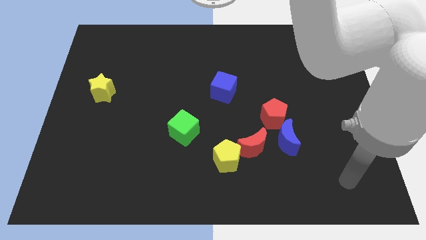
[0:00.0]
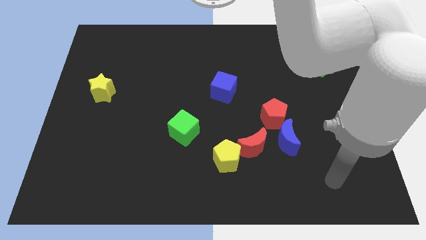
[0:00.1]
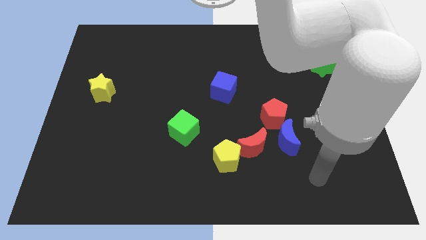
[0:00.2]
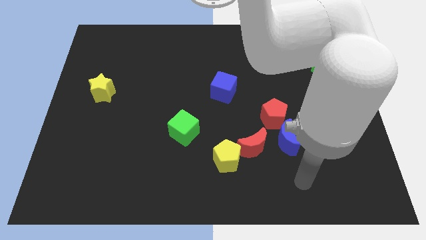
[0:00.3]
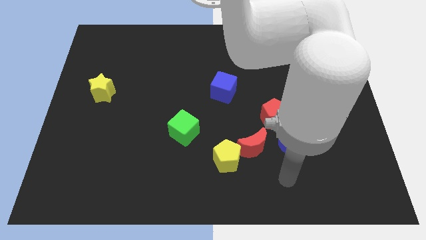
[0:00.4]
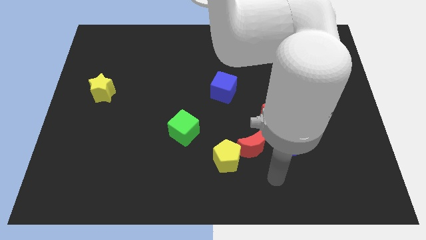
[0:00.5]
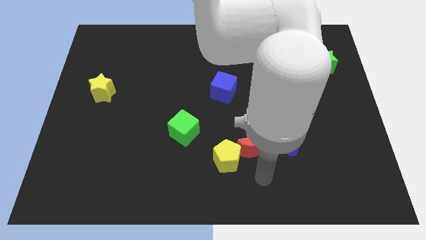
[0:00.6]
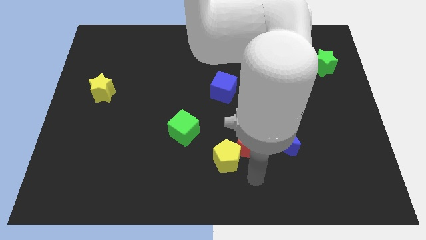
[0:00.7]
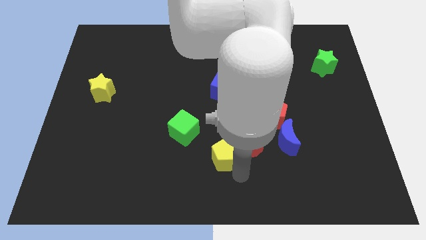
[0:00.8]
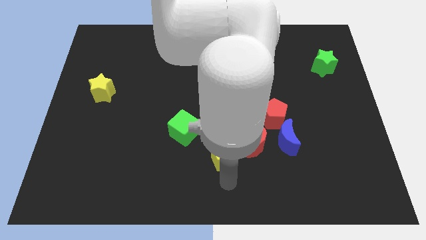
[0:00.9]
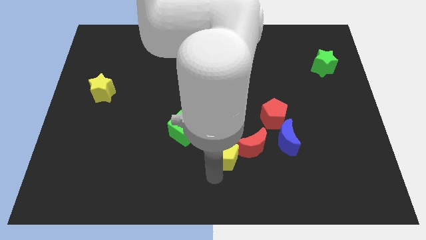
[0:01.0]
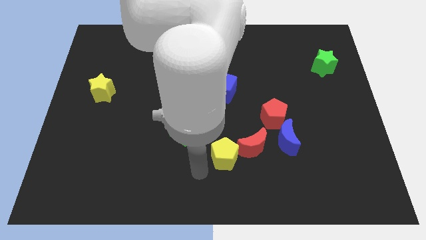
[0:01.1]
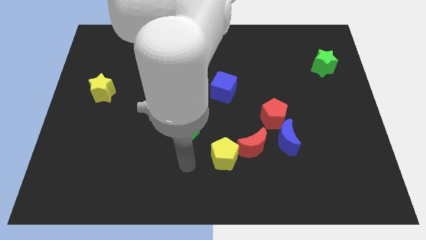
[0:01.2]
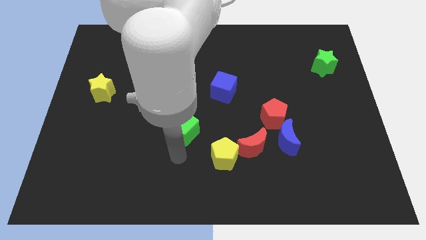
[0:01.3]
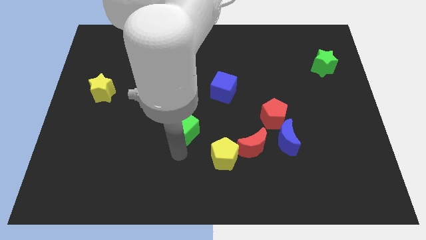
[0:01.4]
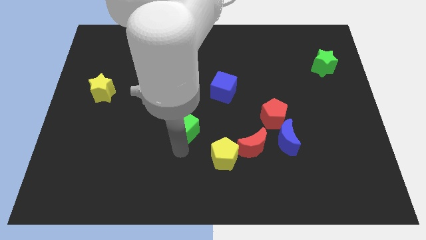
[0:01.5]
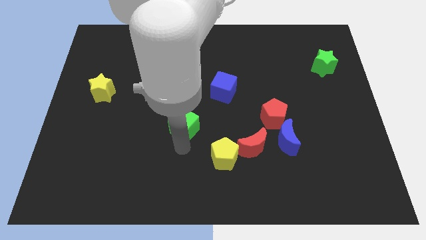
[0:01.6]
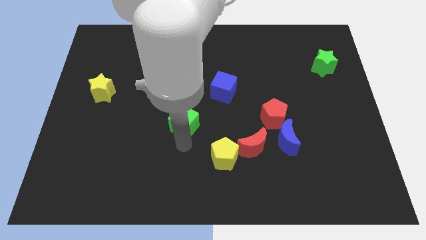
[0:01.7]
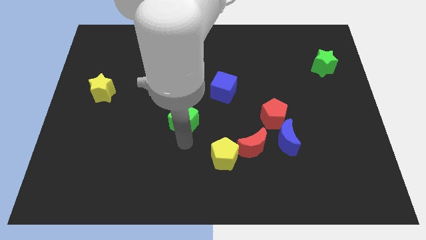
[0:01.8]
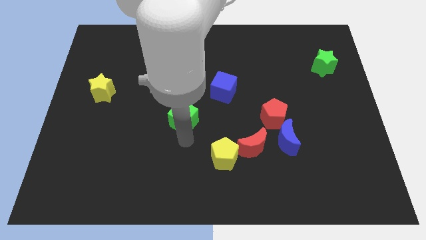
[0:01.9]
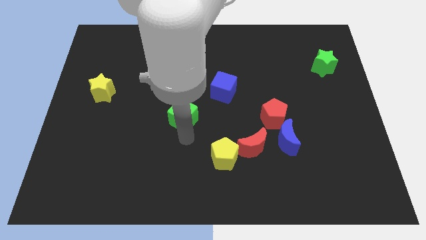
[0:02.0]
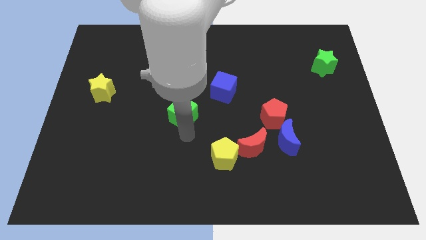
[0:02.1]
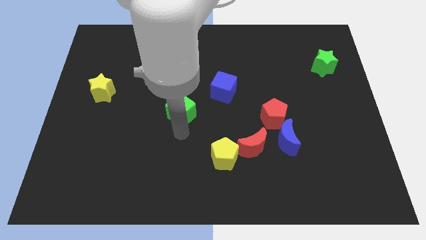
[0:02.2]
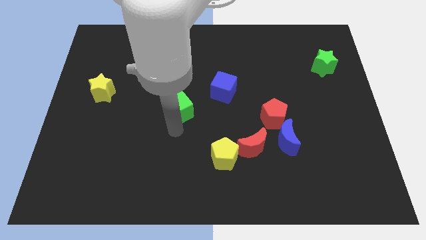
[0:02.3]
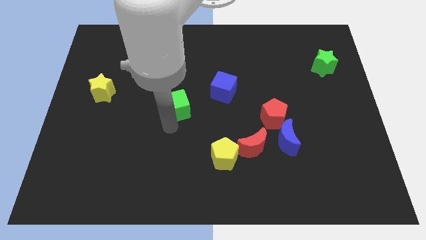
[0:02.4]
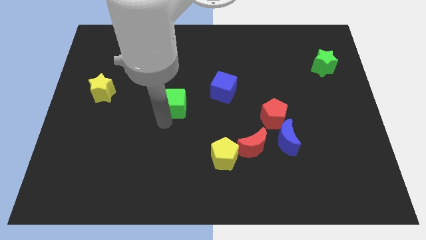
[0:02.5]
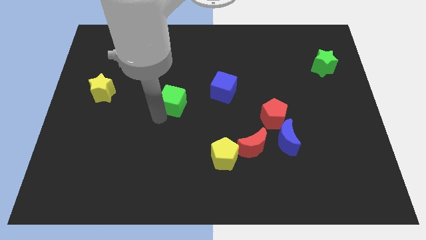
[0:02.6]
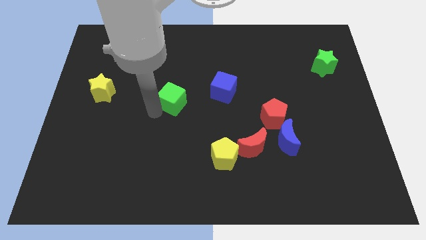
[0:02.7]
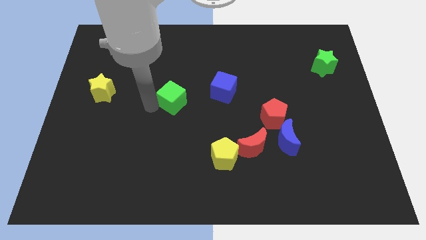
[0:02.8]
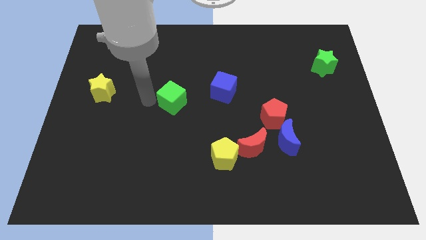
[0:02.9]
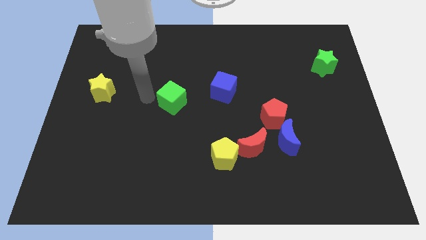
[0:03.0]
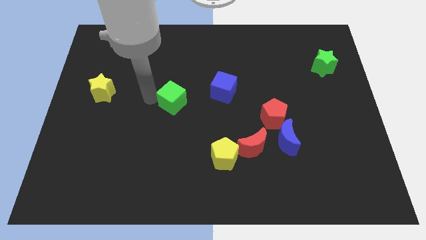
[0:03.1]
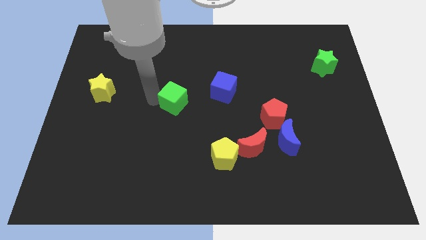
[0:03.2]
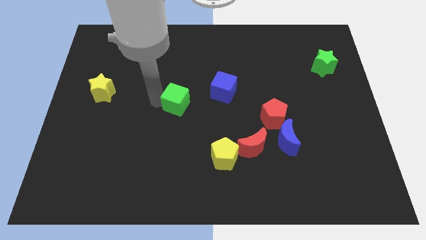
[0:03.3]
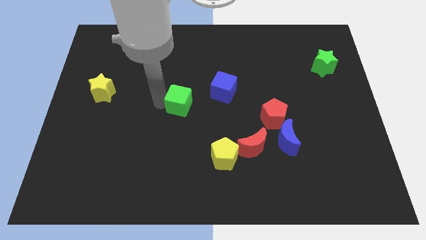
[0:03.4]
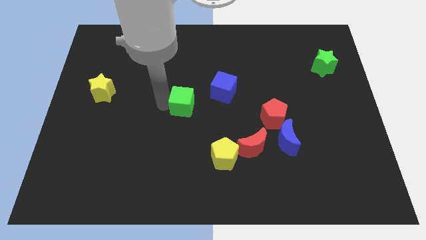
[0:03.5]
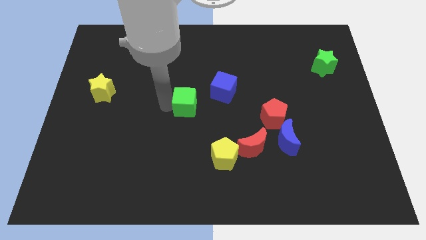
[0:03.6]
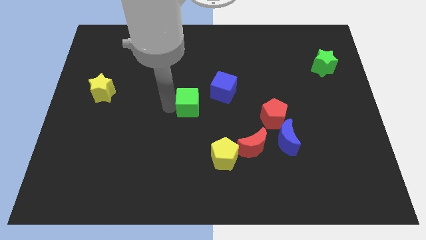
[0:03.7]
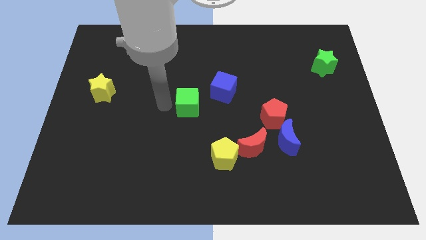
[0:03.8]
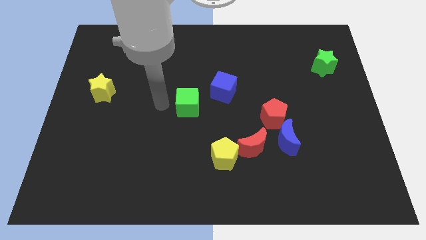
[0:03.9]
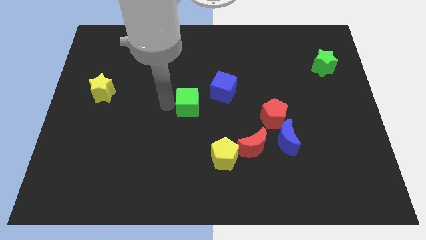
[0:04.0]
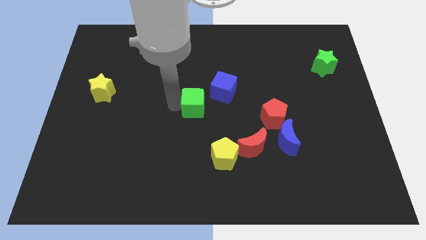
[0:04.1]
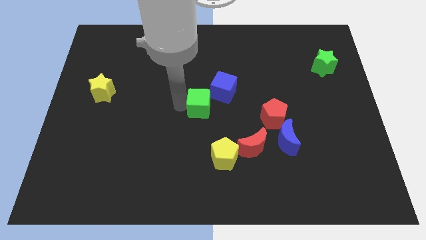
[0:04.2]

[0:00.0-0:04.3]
push the green cube a bit upwards and right diagonally

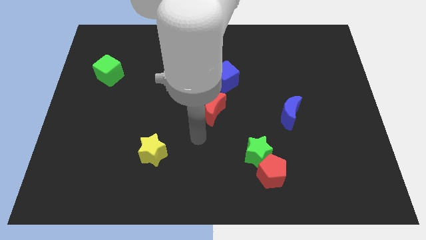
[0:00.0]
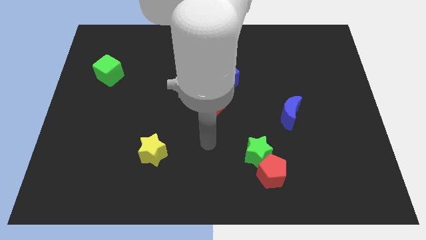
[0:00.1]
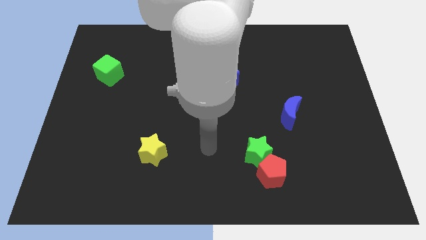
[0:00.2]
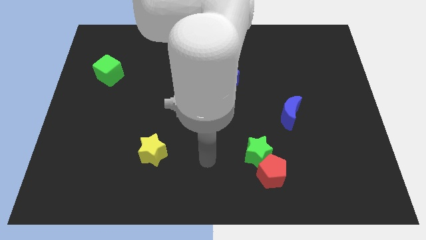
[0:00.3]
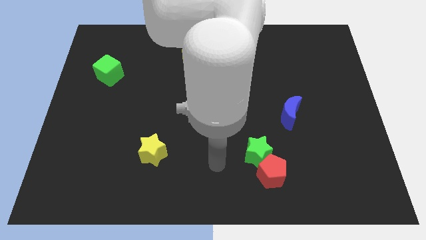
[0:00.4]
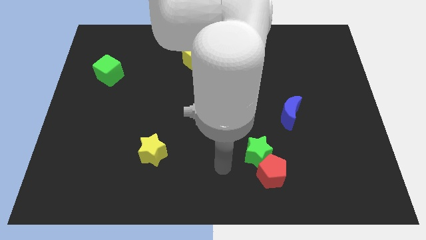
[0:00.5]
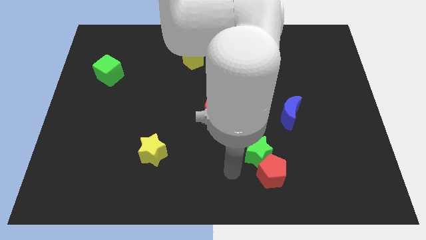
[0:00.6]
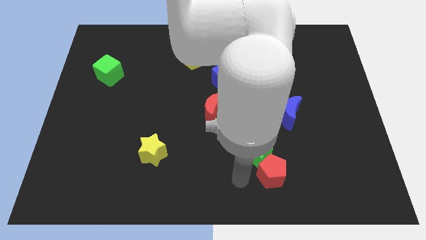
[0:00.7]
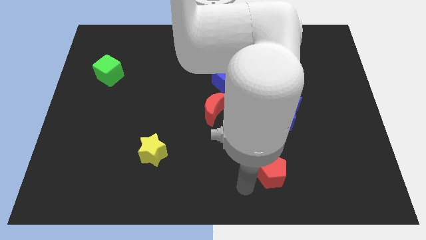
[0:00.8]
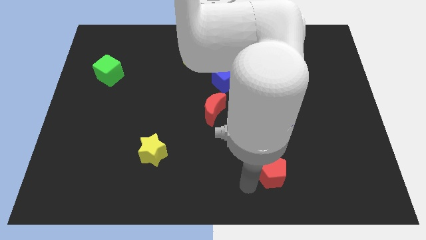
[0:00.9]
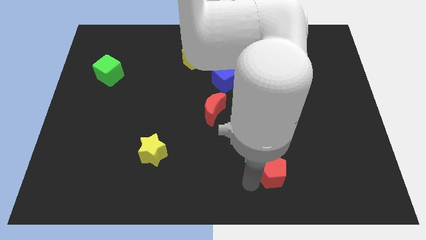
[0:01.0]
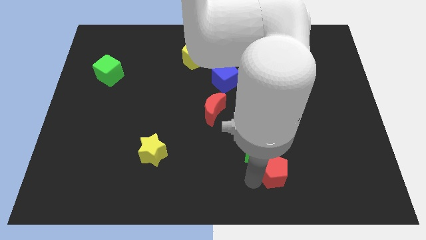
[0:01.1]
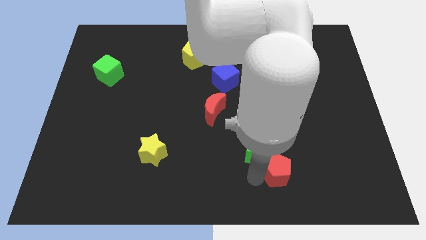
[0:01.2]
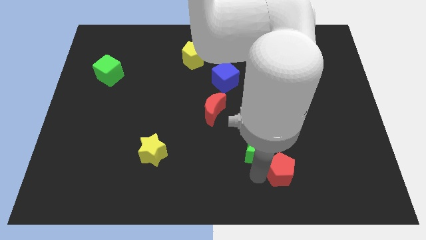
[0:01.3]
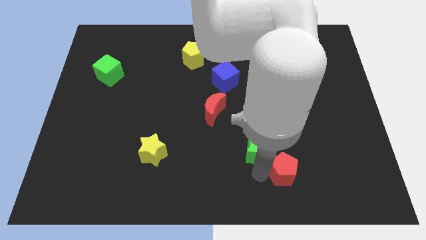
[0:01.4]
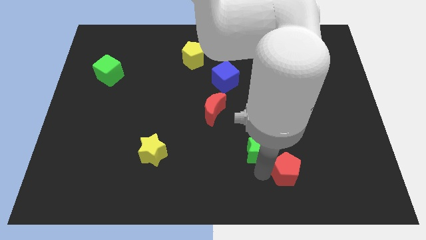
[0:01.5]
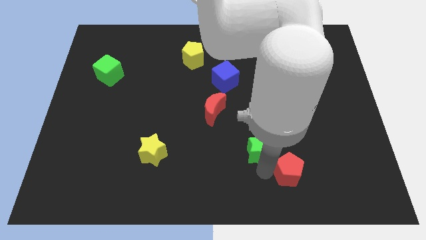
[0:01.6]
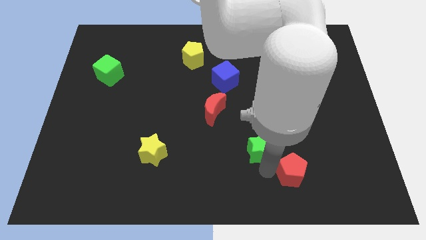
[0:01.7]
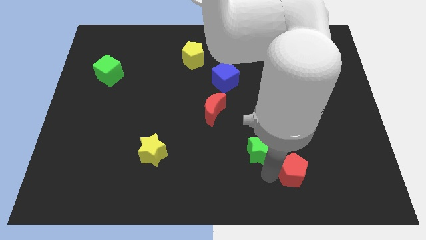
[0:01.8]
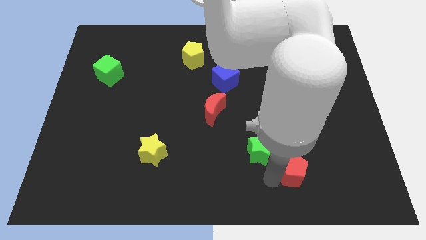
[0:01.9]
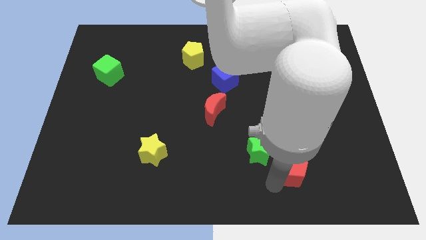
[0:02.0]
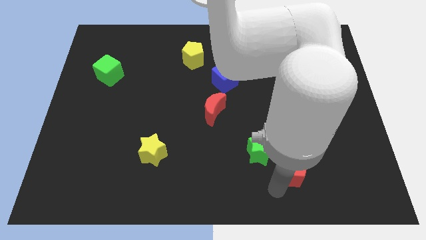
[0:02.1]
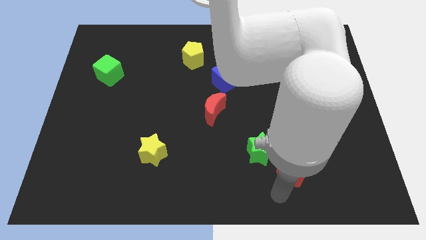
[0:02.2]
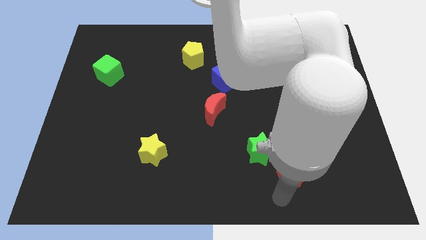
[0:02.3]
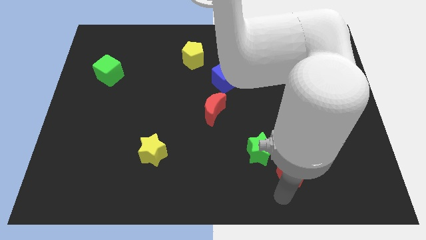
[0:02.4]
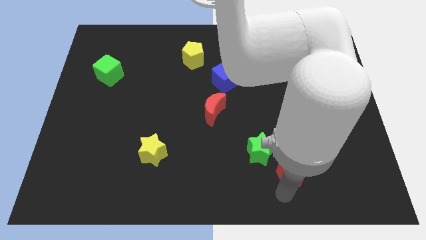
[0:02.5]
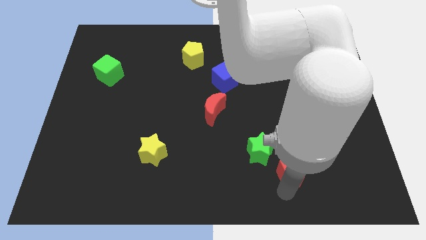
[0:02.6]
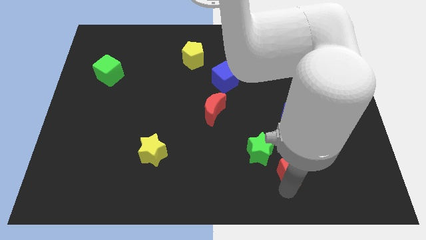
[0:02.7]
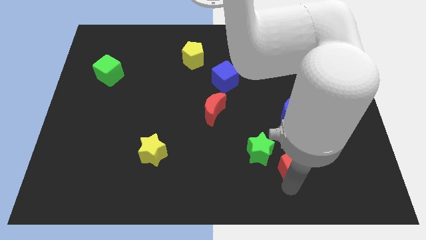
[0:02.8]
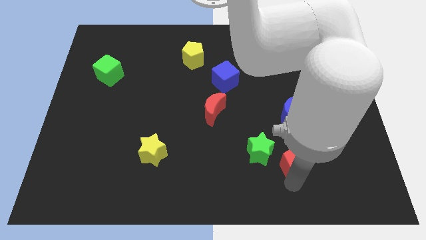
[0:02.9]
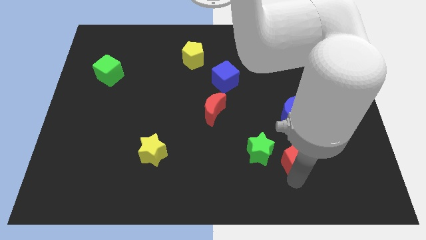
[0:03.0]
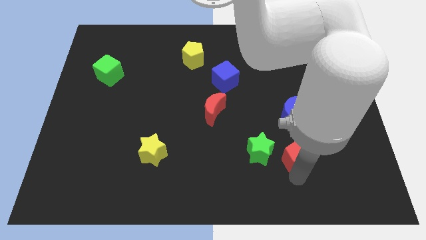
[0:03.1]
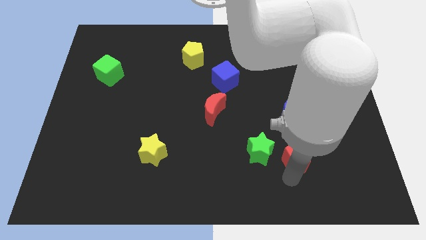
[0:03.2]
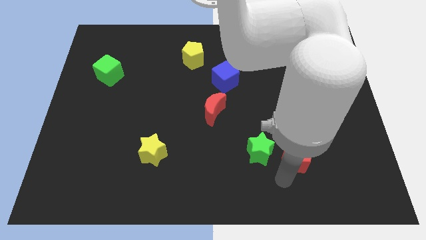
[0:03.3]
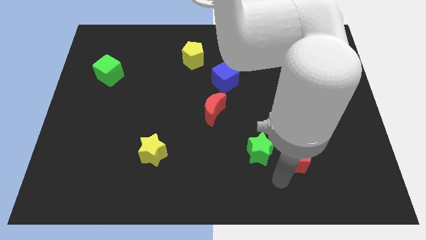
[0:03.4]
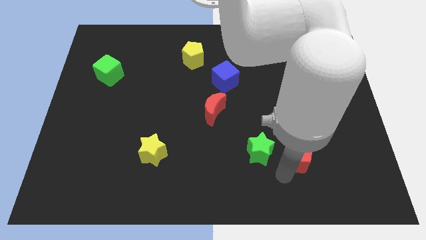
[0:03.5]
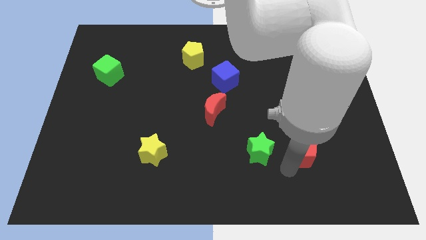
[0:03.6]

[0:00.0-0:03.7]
slightly move the red pentagon up and right

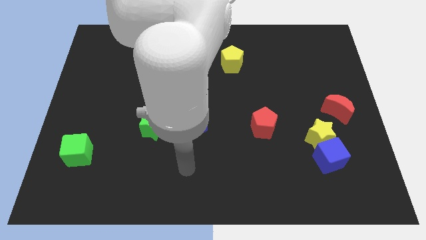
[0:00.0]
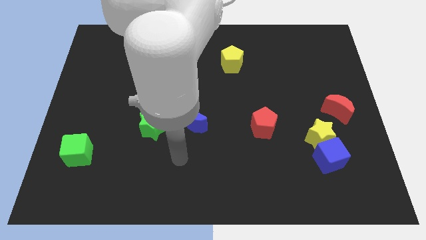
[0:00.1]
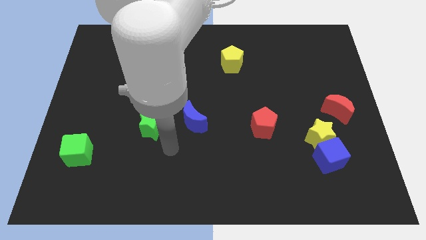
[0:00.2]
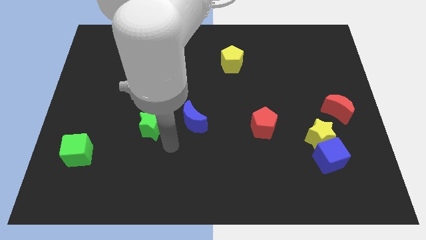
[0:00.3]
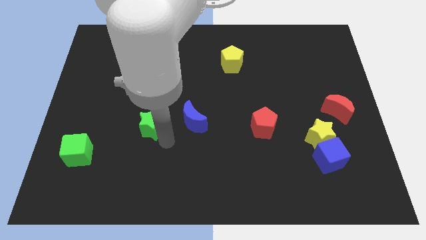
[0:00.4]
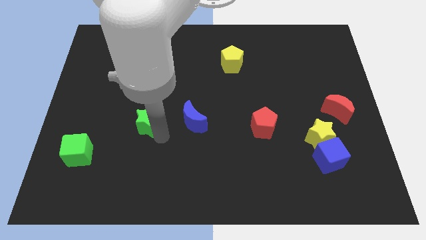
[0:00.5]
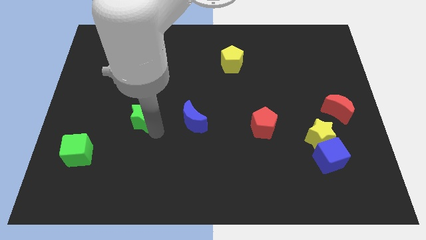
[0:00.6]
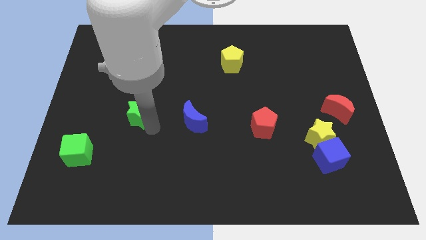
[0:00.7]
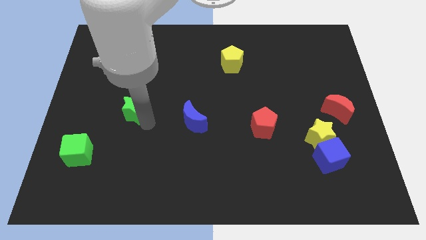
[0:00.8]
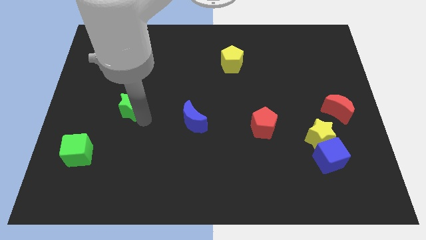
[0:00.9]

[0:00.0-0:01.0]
move the green star a little bit upwards and then to the left
